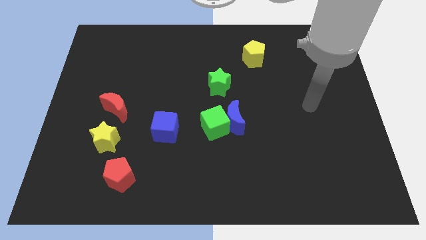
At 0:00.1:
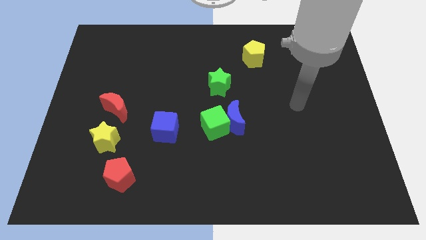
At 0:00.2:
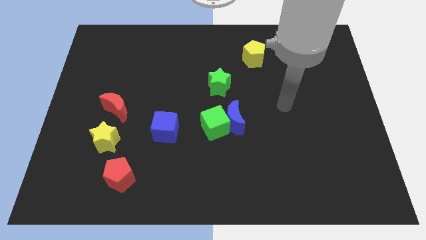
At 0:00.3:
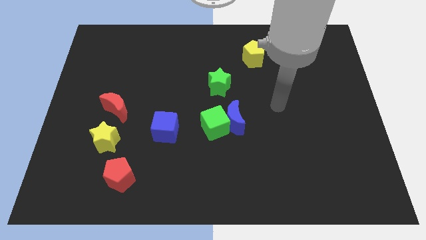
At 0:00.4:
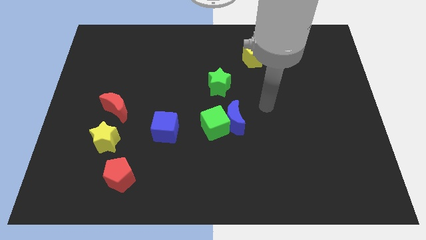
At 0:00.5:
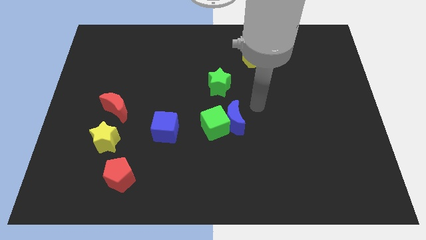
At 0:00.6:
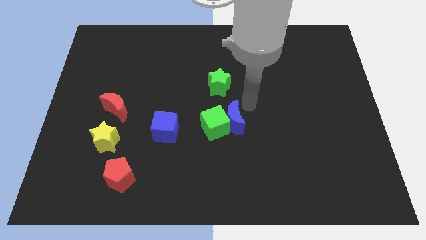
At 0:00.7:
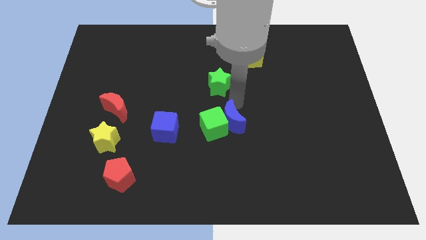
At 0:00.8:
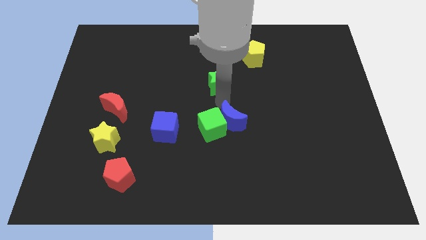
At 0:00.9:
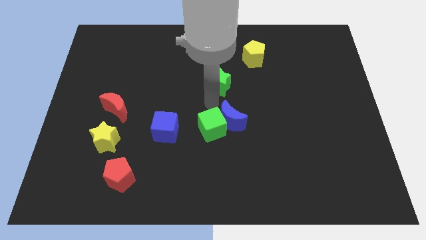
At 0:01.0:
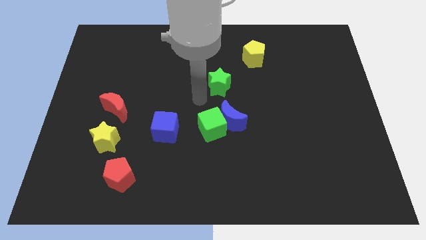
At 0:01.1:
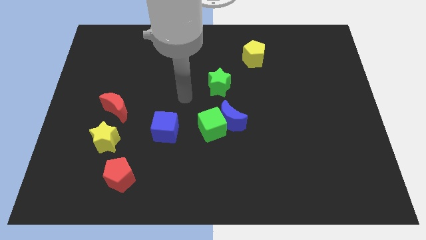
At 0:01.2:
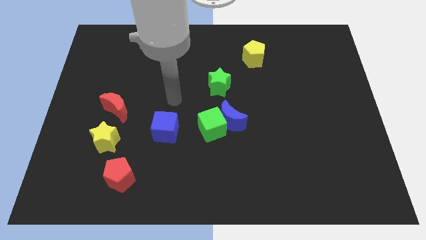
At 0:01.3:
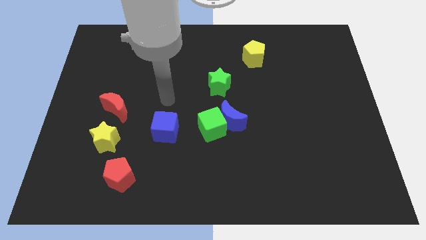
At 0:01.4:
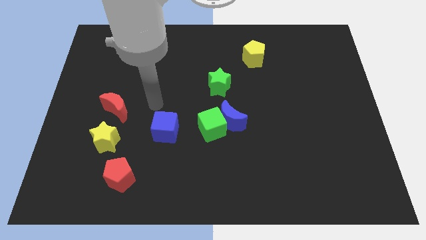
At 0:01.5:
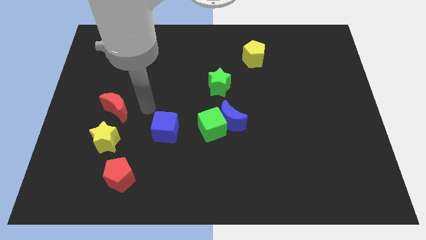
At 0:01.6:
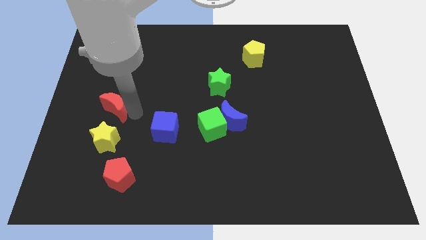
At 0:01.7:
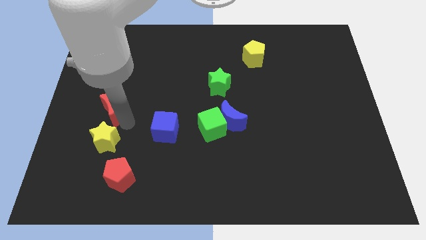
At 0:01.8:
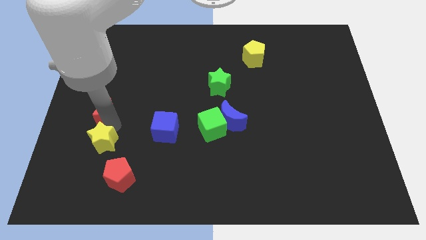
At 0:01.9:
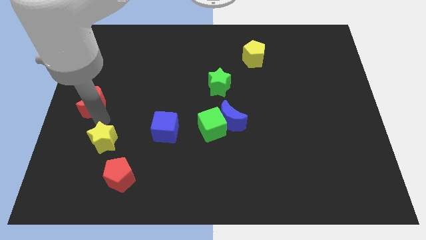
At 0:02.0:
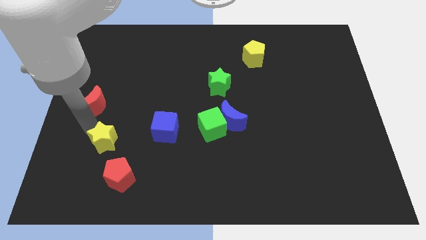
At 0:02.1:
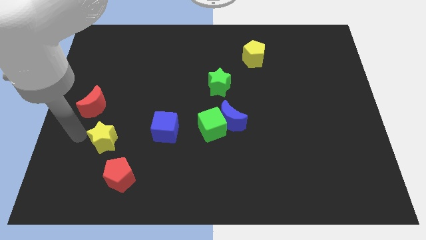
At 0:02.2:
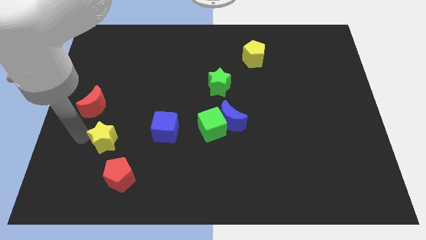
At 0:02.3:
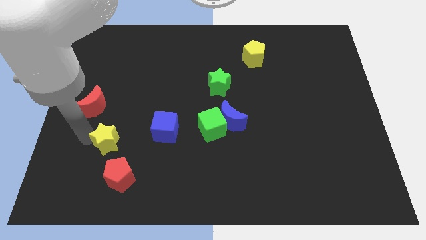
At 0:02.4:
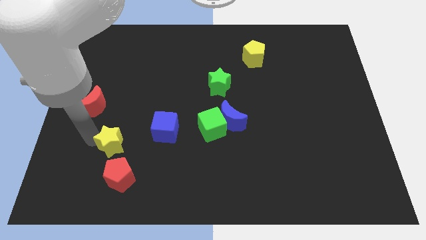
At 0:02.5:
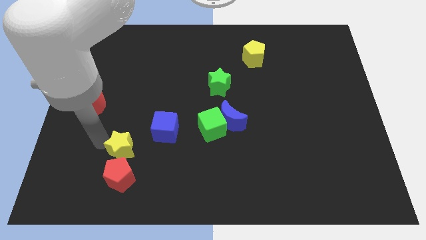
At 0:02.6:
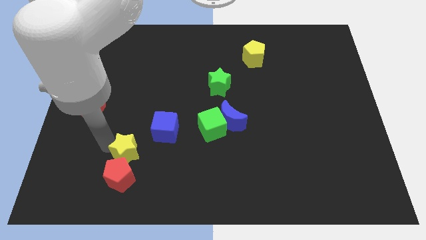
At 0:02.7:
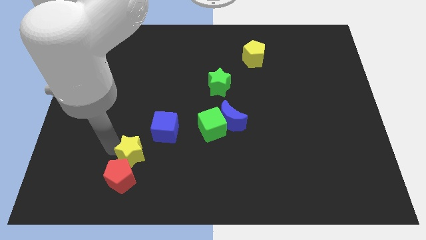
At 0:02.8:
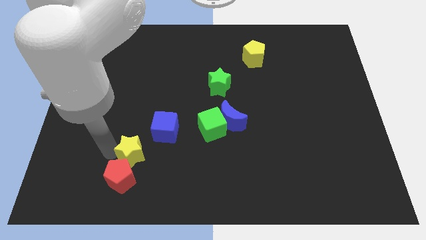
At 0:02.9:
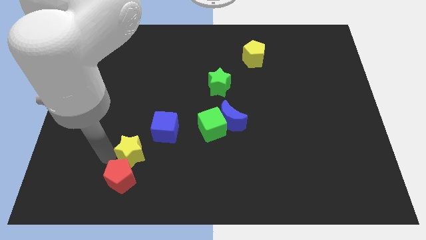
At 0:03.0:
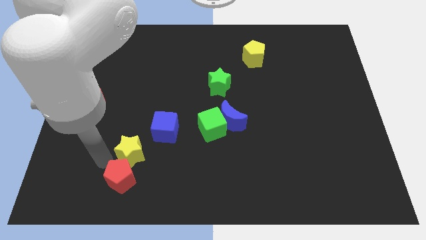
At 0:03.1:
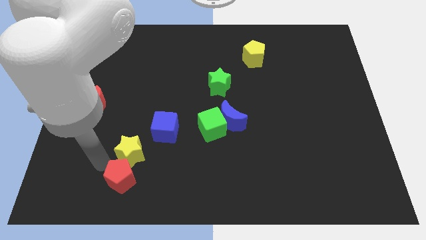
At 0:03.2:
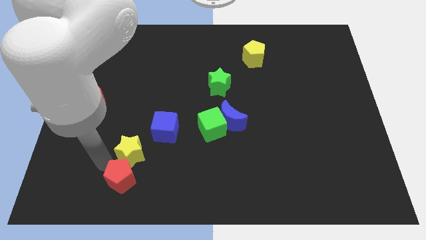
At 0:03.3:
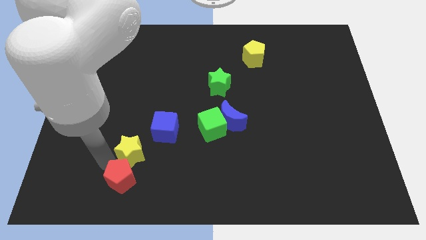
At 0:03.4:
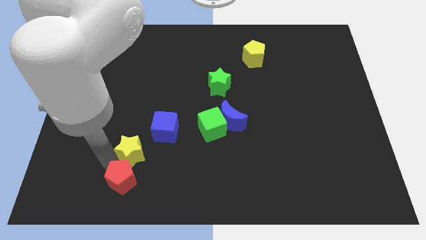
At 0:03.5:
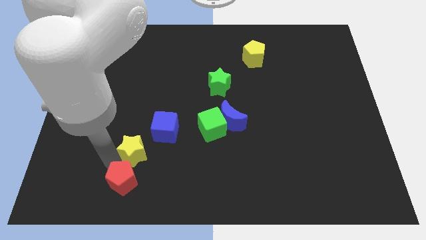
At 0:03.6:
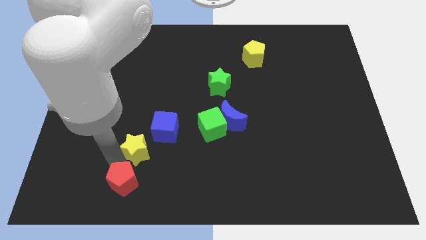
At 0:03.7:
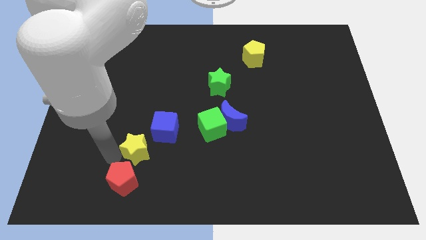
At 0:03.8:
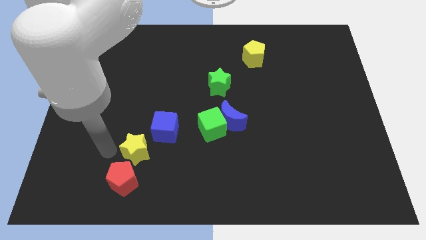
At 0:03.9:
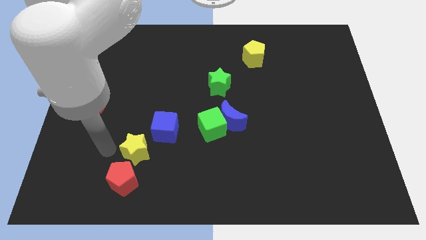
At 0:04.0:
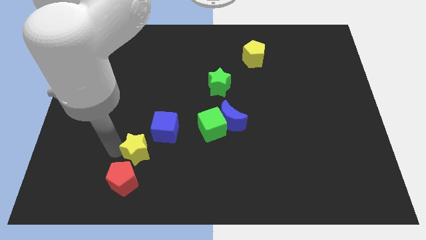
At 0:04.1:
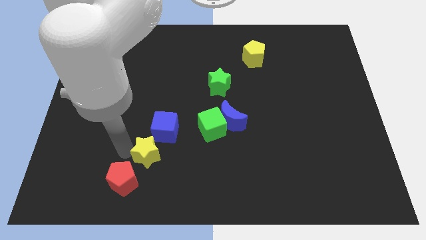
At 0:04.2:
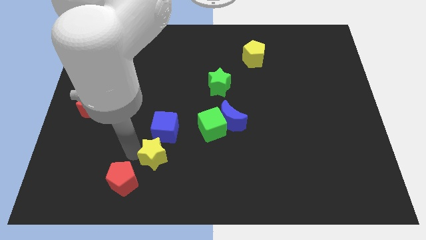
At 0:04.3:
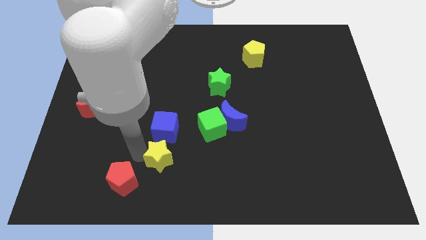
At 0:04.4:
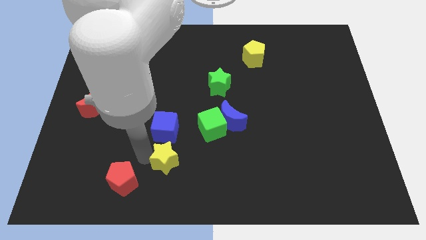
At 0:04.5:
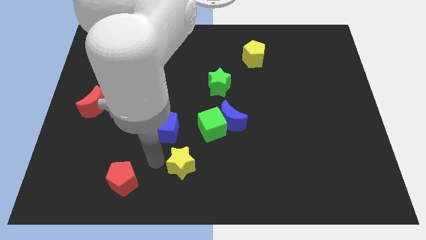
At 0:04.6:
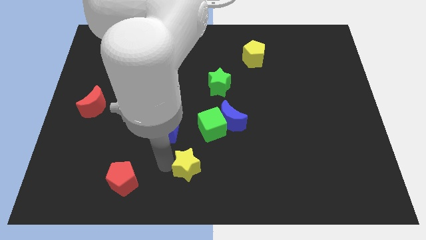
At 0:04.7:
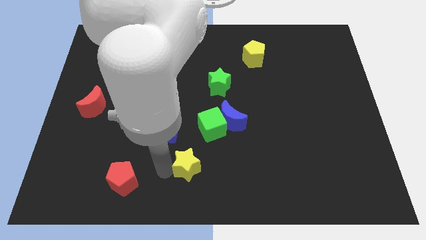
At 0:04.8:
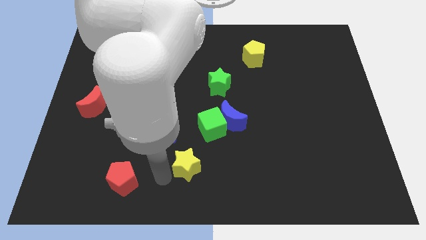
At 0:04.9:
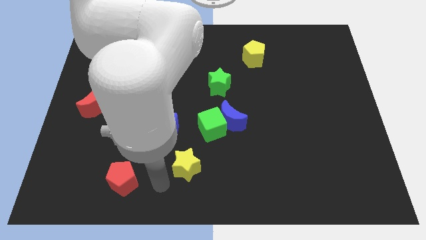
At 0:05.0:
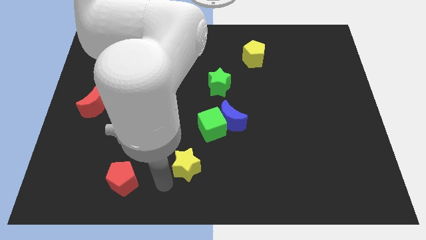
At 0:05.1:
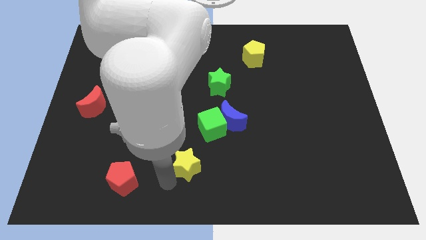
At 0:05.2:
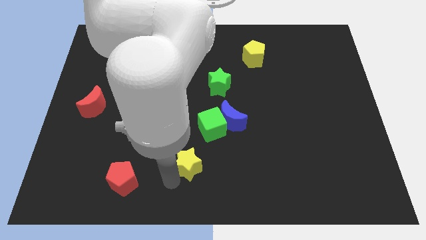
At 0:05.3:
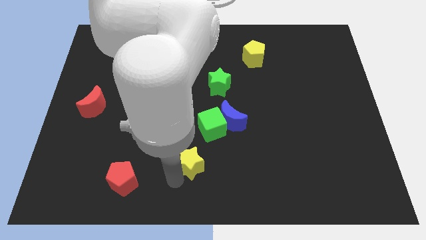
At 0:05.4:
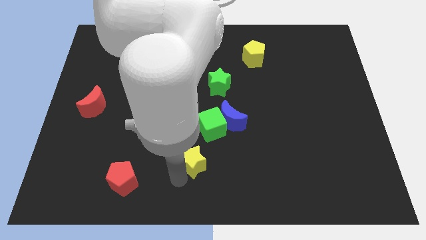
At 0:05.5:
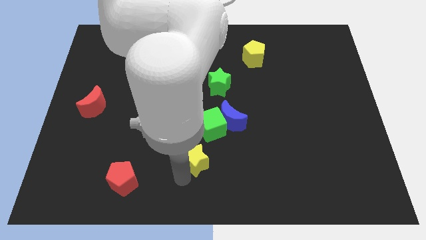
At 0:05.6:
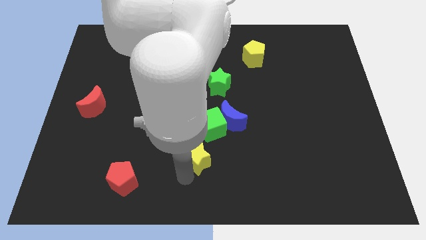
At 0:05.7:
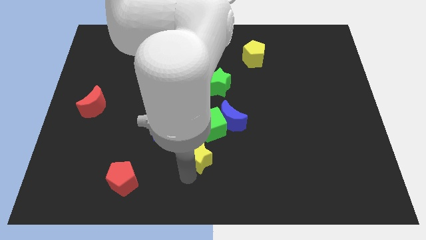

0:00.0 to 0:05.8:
move the yellow star to the right

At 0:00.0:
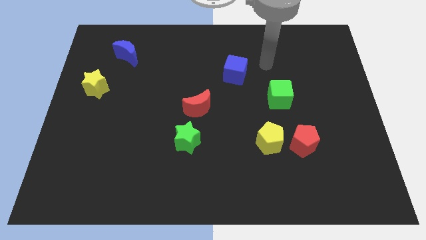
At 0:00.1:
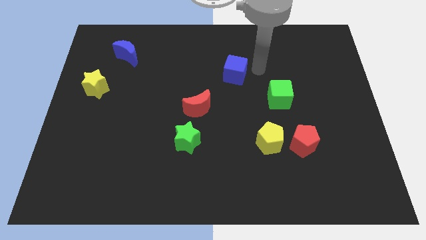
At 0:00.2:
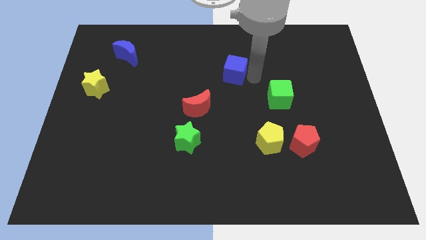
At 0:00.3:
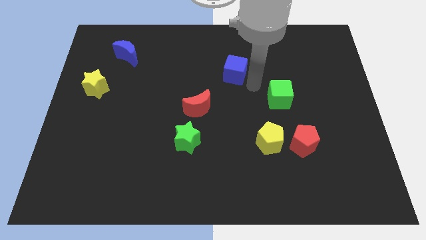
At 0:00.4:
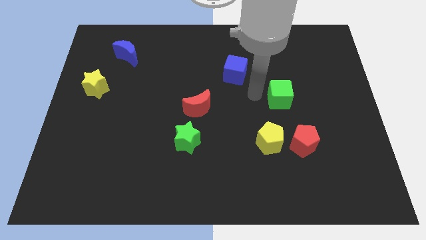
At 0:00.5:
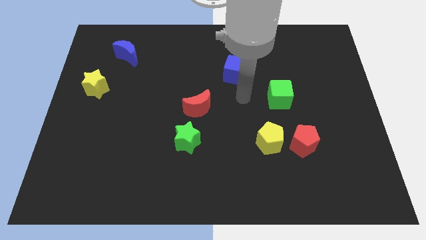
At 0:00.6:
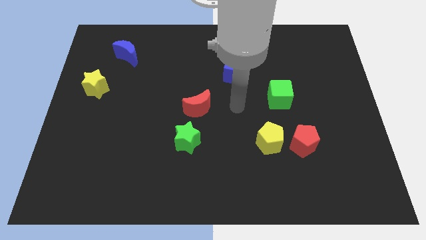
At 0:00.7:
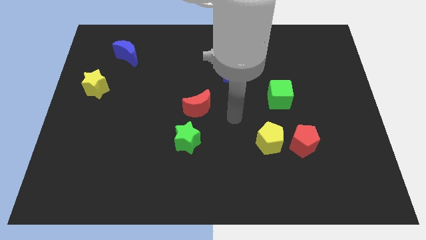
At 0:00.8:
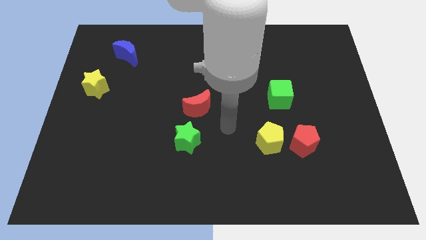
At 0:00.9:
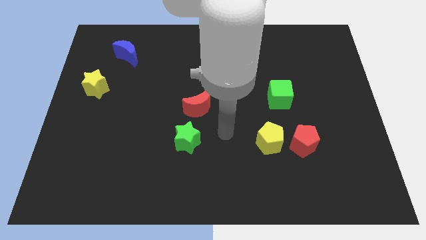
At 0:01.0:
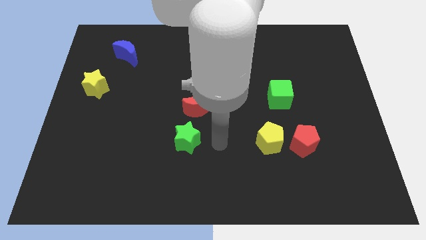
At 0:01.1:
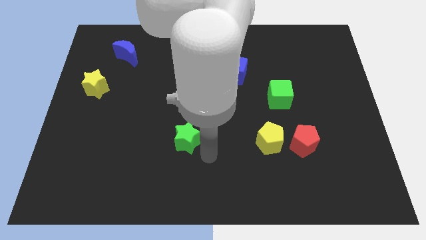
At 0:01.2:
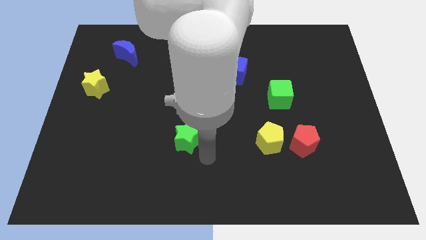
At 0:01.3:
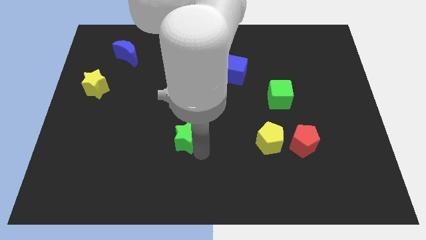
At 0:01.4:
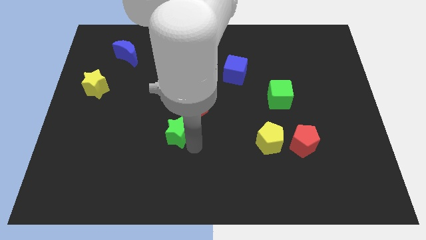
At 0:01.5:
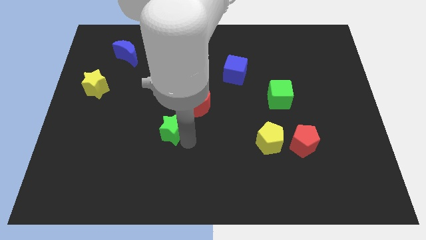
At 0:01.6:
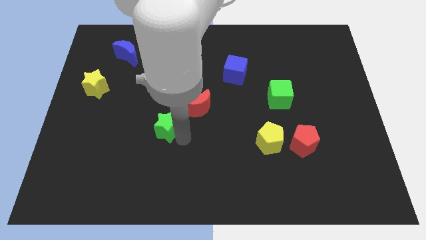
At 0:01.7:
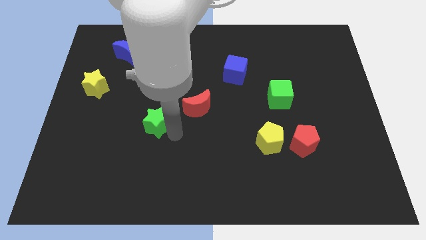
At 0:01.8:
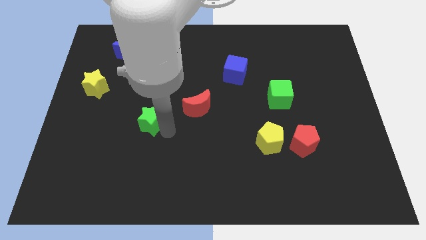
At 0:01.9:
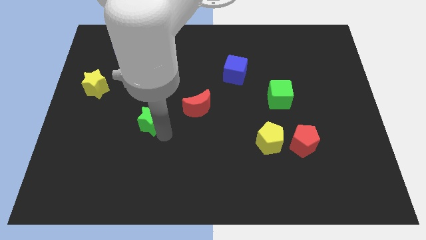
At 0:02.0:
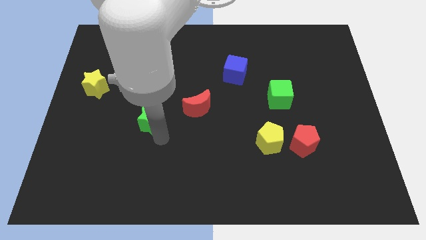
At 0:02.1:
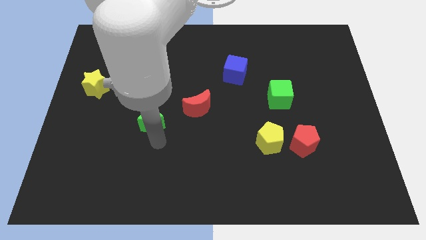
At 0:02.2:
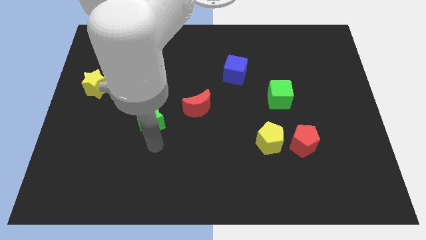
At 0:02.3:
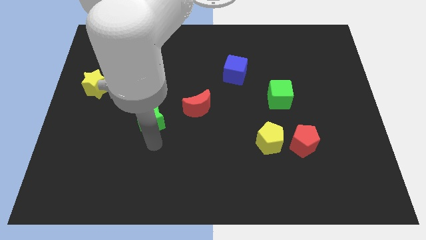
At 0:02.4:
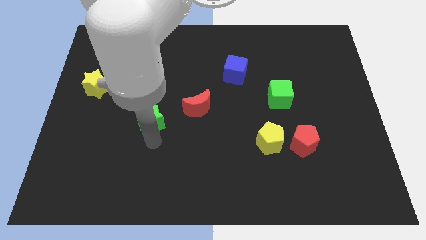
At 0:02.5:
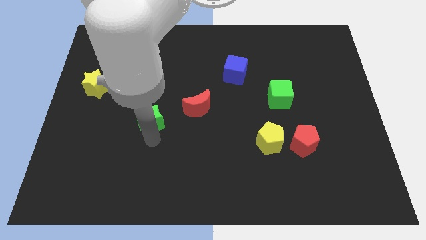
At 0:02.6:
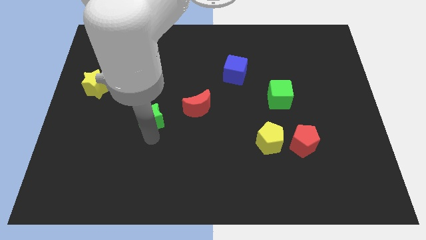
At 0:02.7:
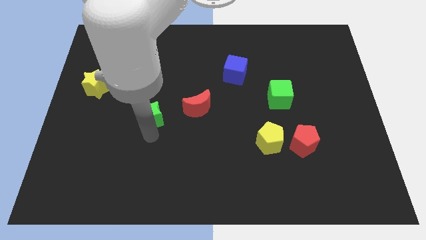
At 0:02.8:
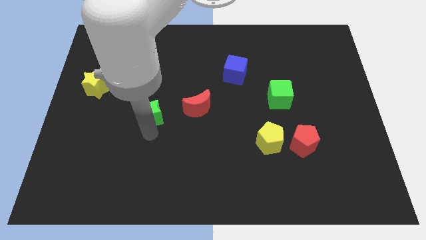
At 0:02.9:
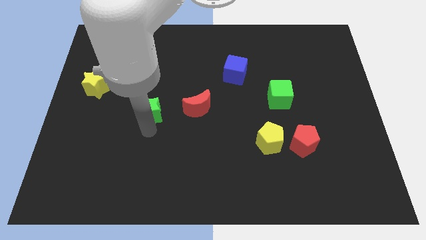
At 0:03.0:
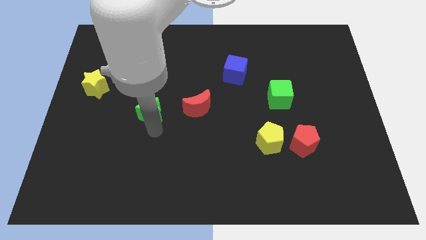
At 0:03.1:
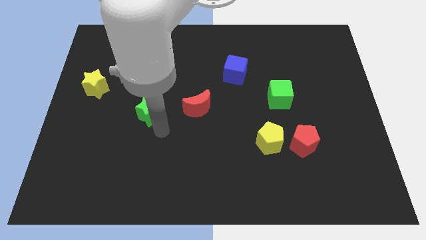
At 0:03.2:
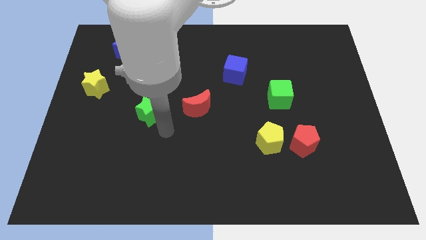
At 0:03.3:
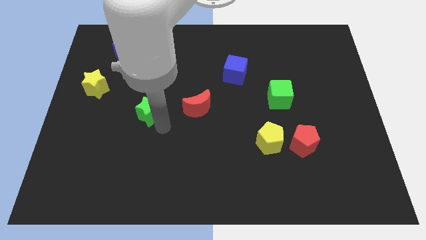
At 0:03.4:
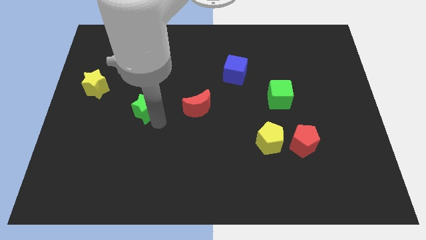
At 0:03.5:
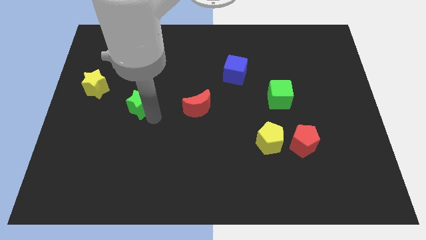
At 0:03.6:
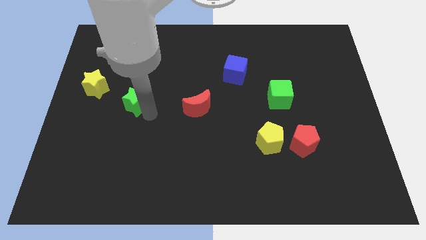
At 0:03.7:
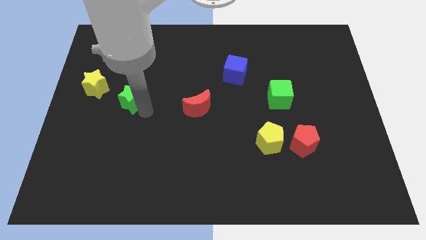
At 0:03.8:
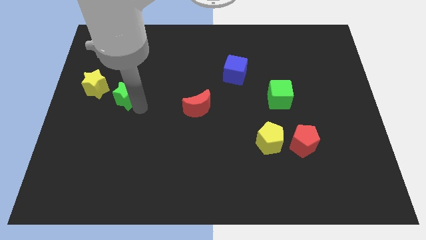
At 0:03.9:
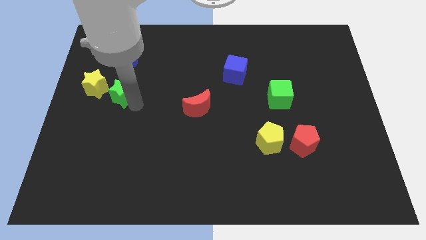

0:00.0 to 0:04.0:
slide the green star up and left
